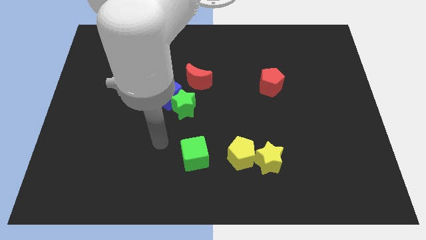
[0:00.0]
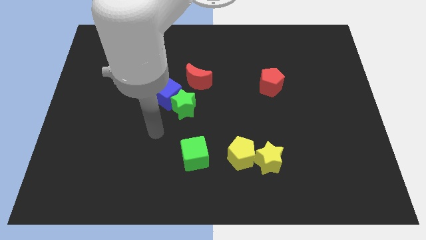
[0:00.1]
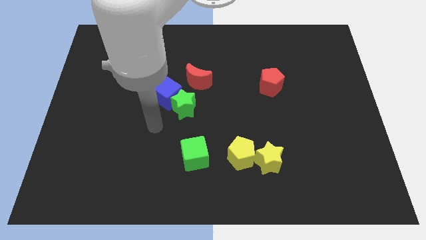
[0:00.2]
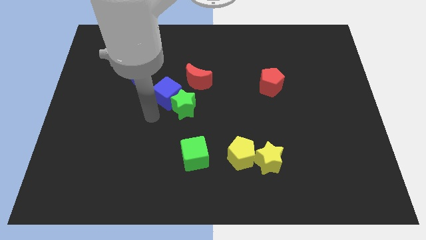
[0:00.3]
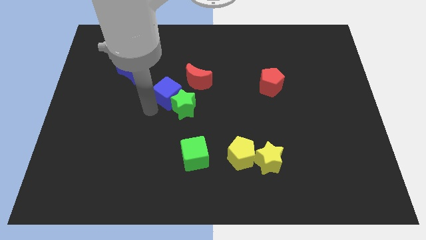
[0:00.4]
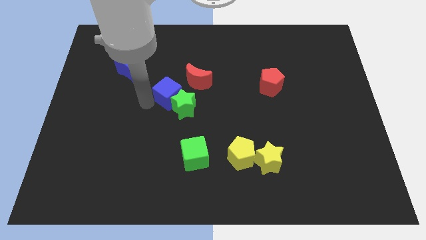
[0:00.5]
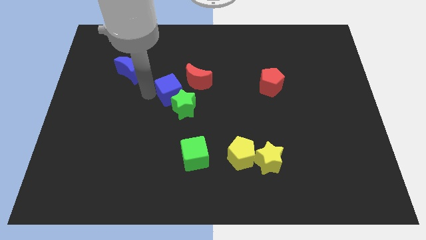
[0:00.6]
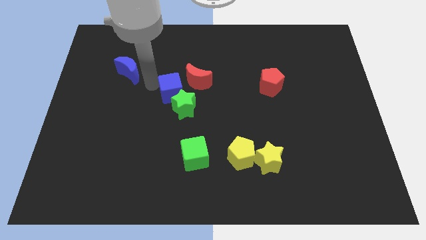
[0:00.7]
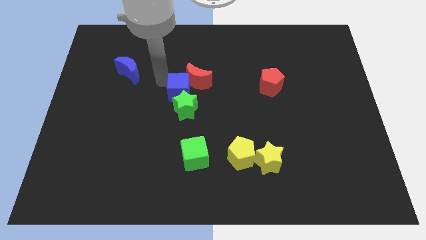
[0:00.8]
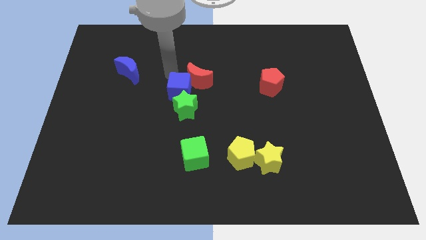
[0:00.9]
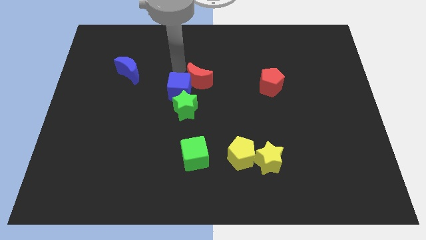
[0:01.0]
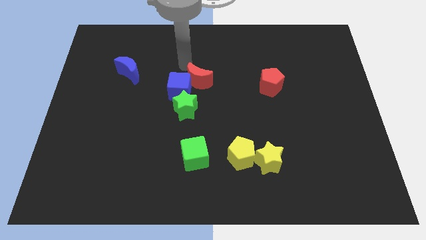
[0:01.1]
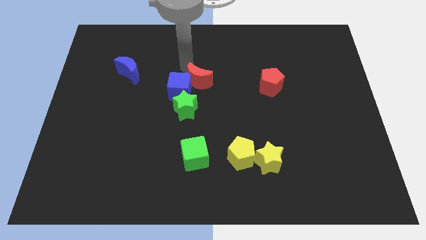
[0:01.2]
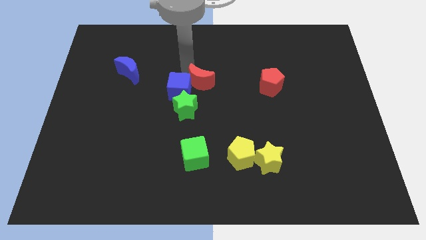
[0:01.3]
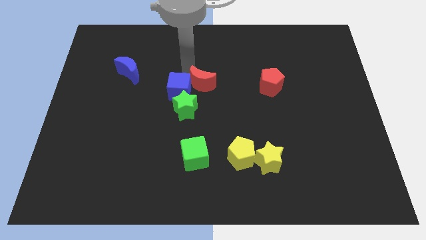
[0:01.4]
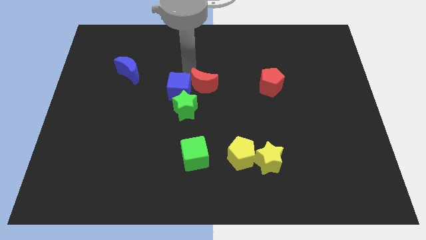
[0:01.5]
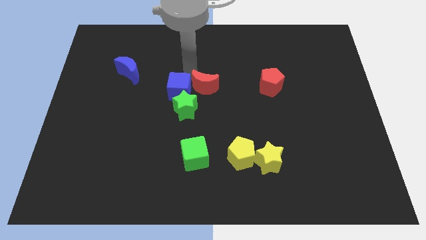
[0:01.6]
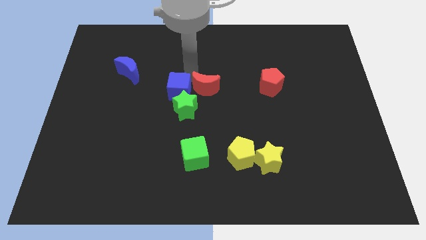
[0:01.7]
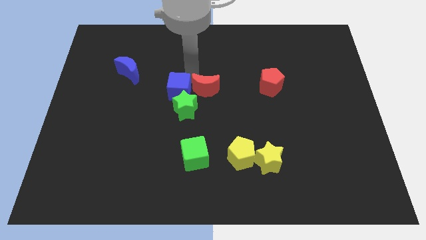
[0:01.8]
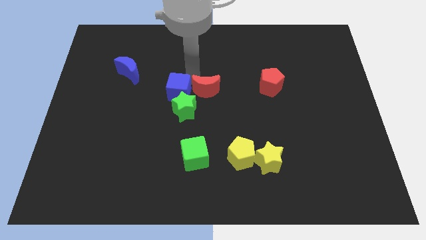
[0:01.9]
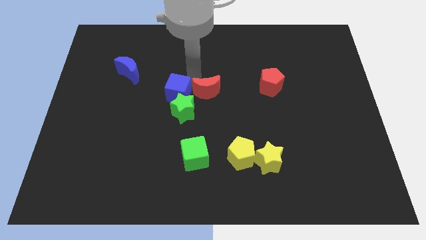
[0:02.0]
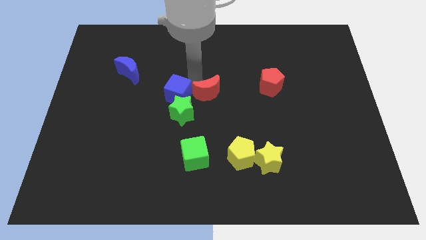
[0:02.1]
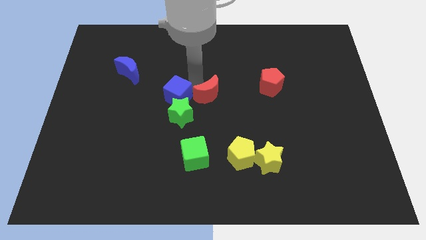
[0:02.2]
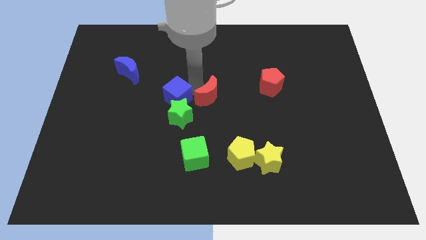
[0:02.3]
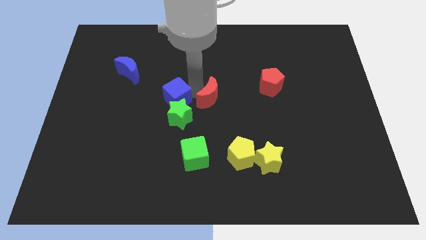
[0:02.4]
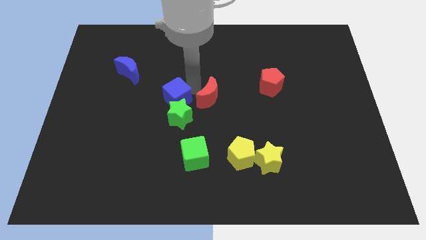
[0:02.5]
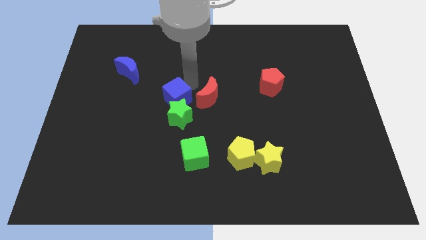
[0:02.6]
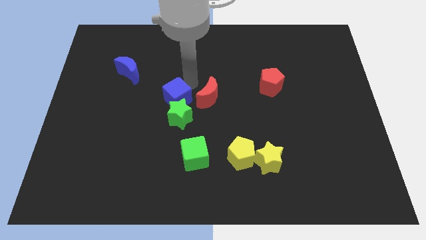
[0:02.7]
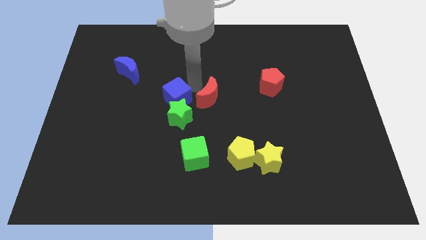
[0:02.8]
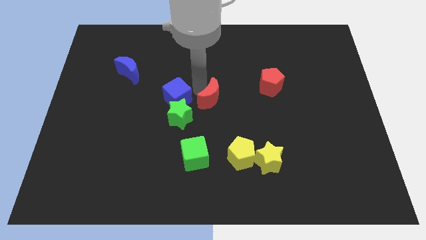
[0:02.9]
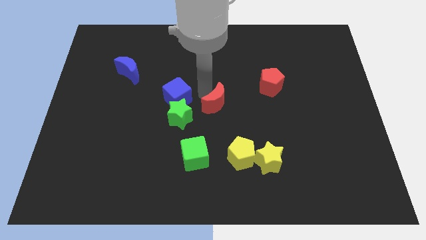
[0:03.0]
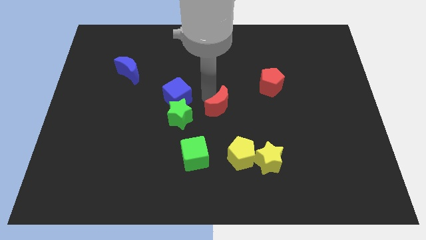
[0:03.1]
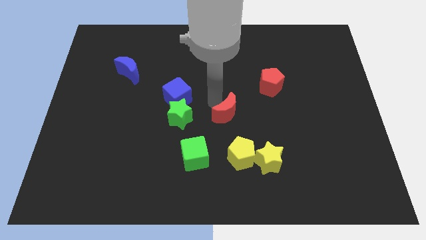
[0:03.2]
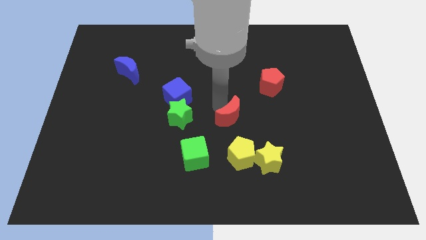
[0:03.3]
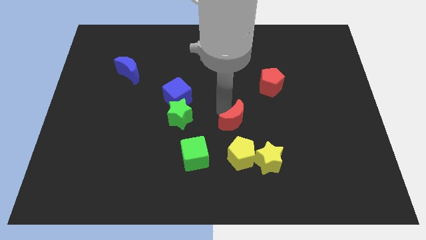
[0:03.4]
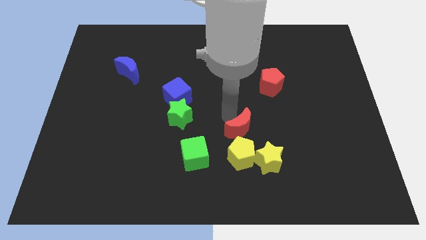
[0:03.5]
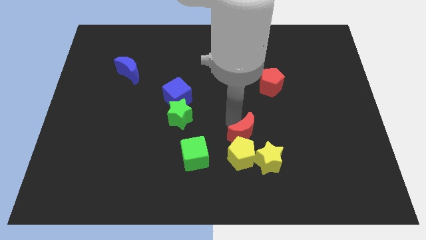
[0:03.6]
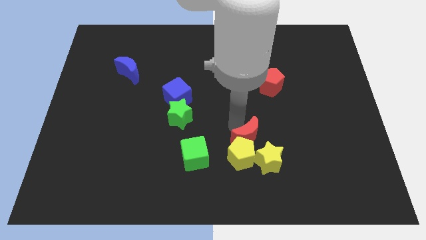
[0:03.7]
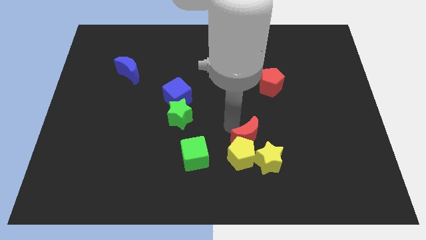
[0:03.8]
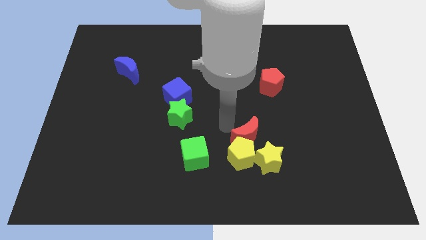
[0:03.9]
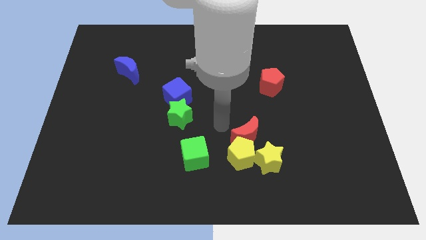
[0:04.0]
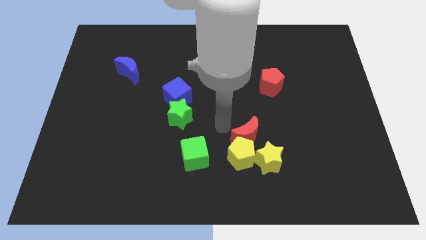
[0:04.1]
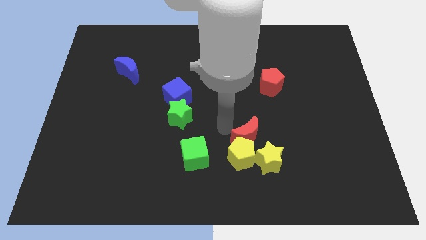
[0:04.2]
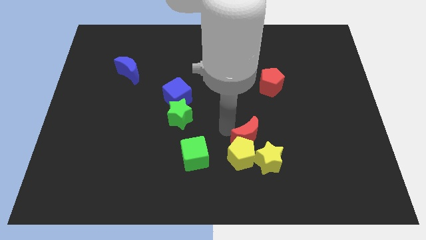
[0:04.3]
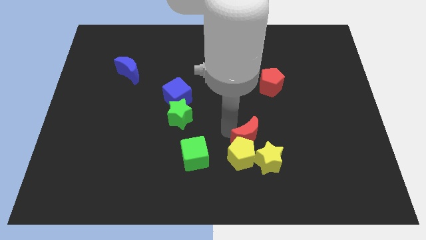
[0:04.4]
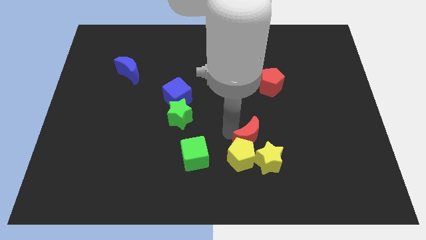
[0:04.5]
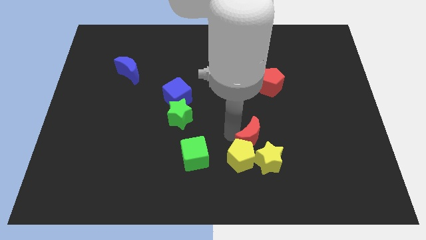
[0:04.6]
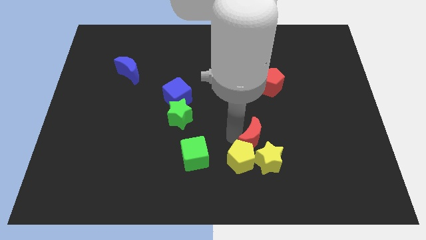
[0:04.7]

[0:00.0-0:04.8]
put the red moon next to the yellow star

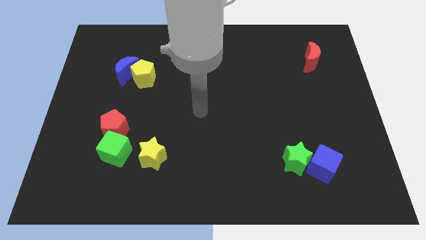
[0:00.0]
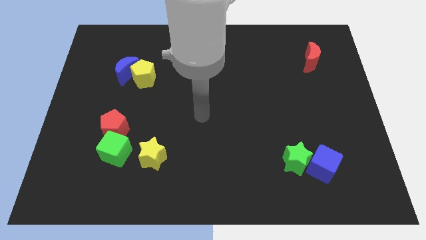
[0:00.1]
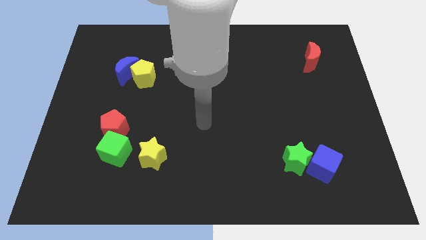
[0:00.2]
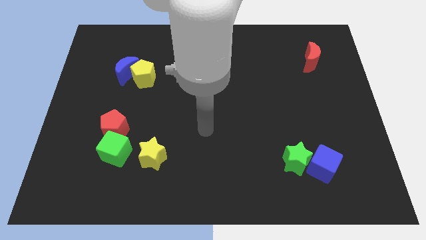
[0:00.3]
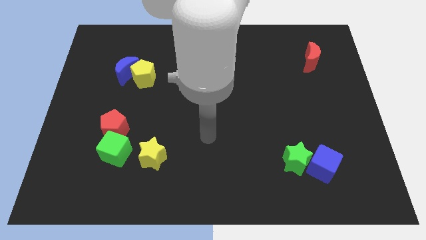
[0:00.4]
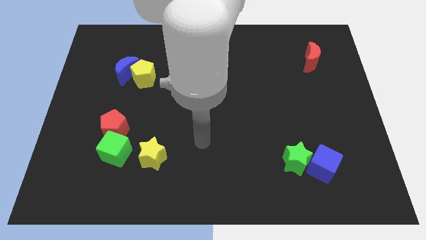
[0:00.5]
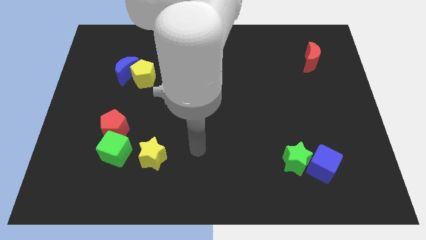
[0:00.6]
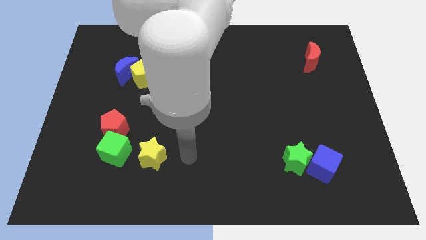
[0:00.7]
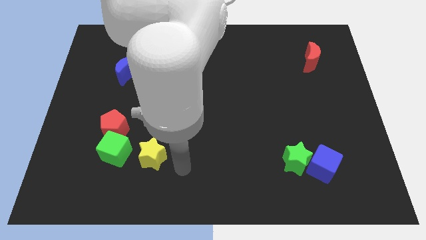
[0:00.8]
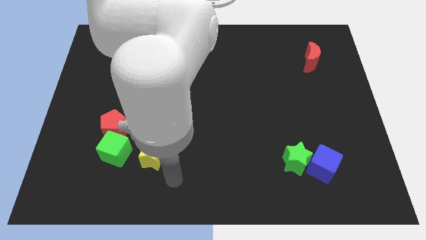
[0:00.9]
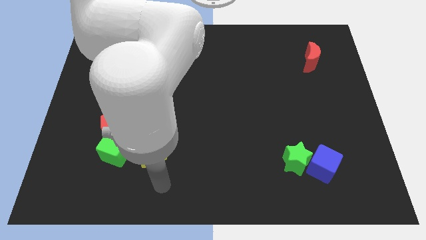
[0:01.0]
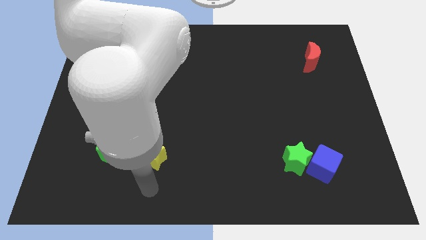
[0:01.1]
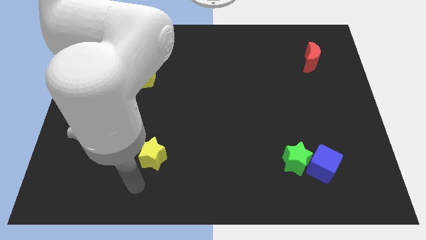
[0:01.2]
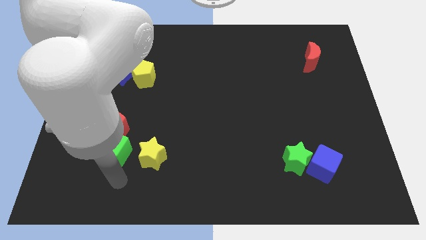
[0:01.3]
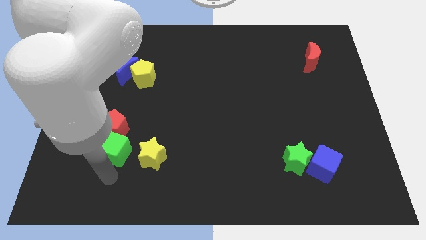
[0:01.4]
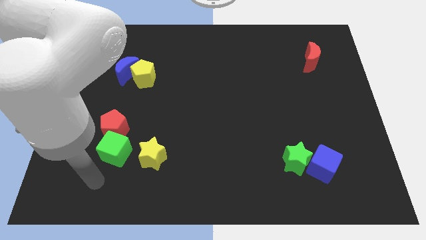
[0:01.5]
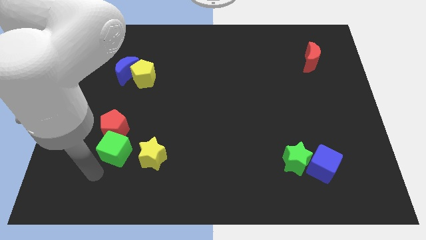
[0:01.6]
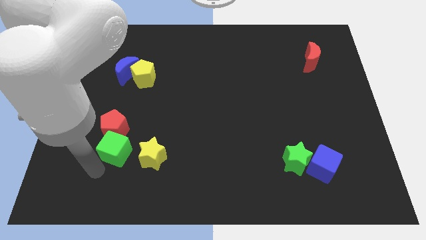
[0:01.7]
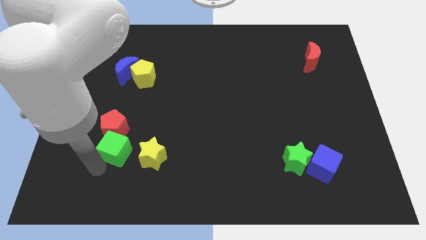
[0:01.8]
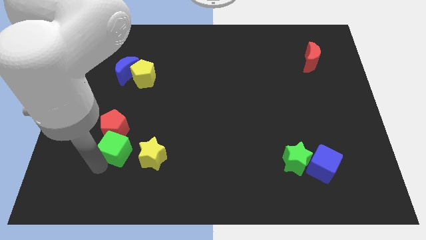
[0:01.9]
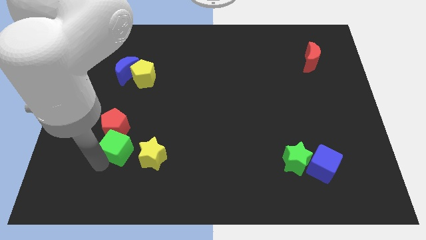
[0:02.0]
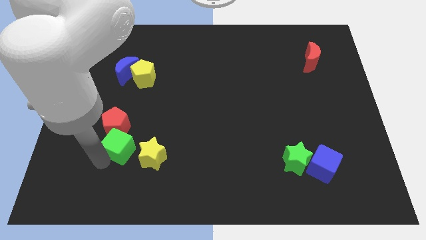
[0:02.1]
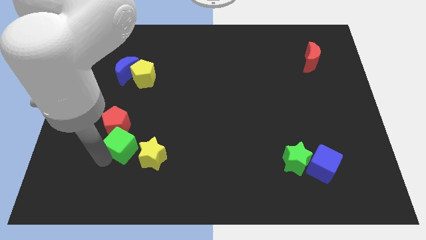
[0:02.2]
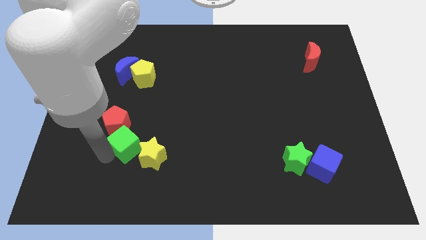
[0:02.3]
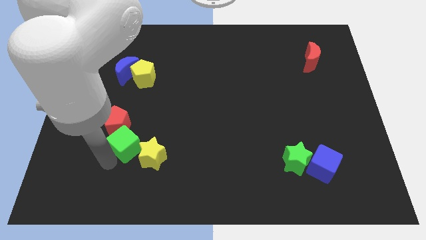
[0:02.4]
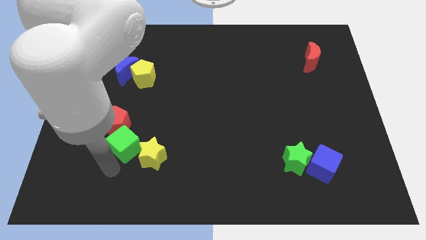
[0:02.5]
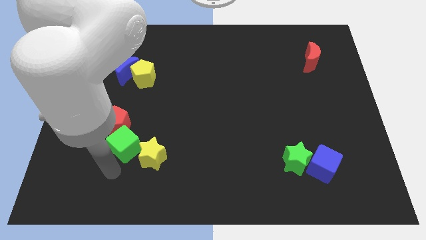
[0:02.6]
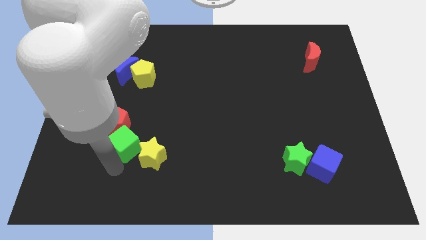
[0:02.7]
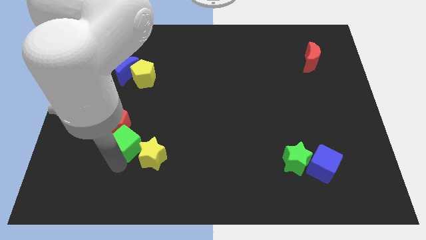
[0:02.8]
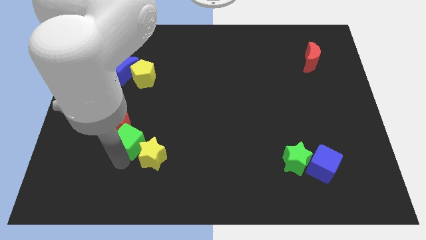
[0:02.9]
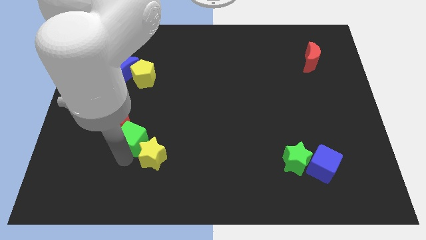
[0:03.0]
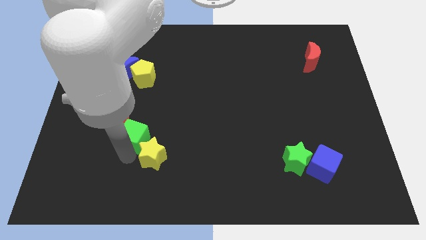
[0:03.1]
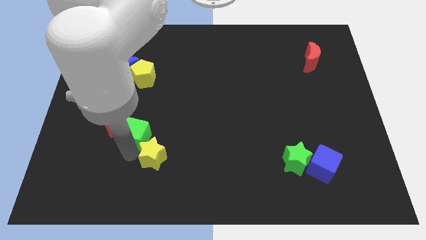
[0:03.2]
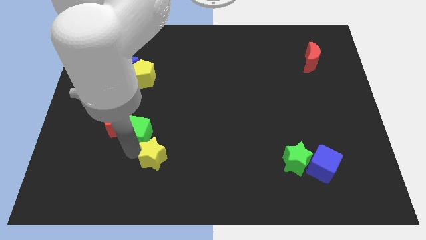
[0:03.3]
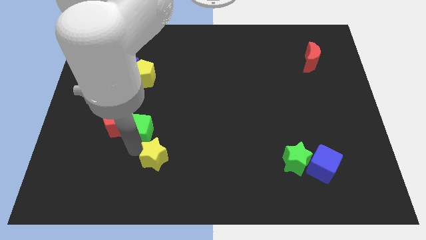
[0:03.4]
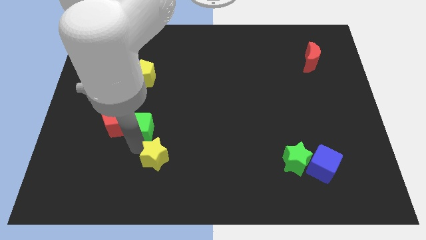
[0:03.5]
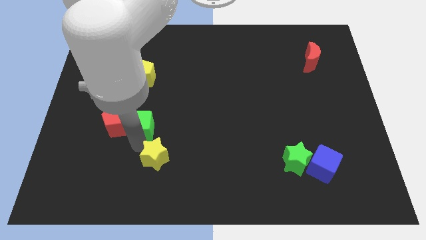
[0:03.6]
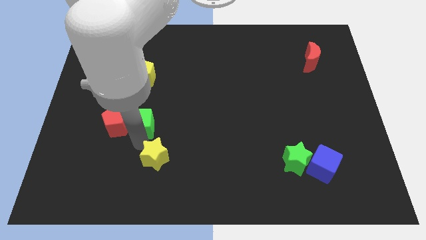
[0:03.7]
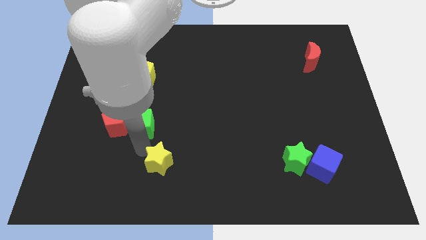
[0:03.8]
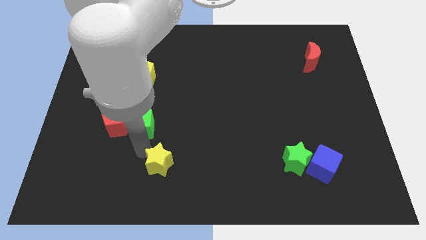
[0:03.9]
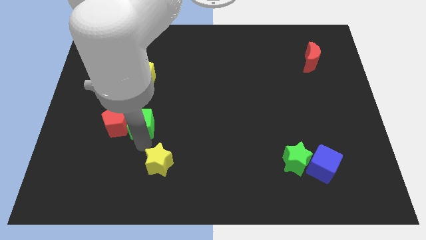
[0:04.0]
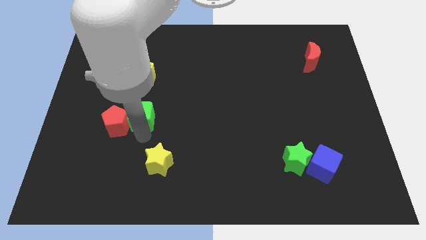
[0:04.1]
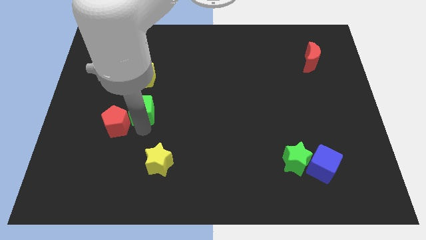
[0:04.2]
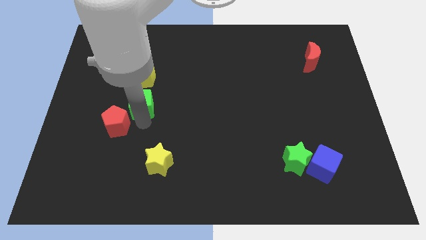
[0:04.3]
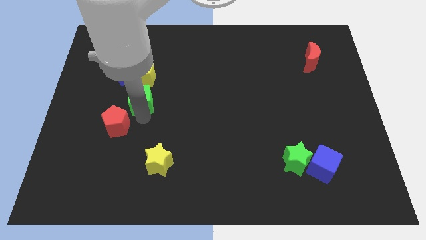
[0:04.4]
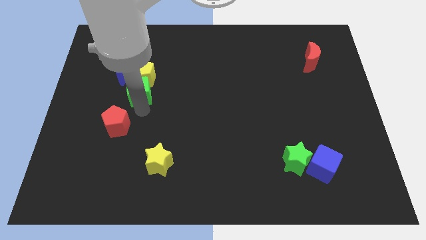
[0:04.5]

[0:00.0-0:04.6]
move the green cube to the yellow pentagon
